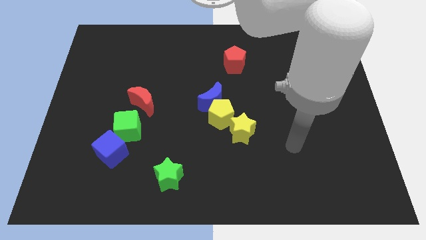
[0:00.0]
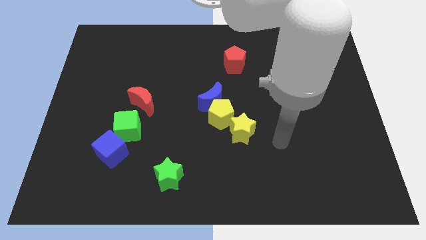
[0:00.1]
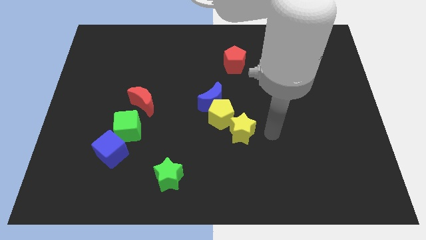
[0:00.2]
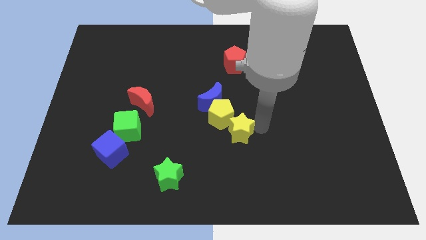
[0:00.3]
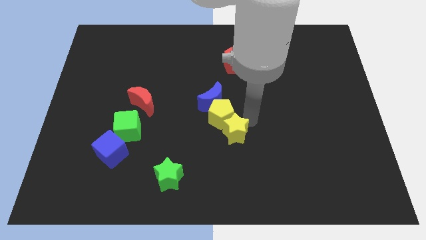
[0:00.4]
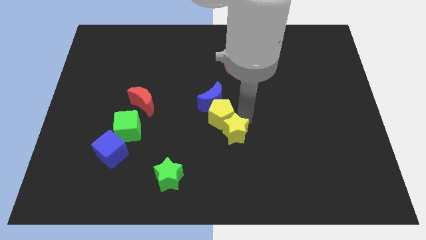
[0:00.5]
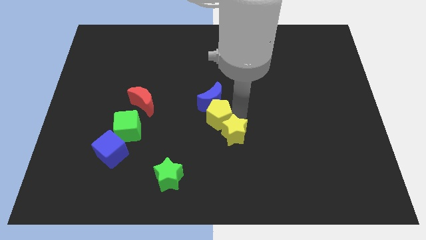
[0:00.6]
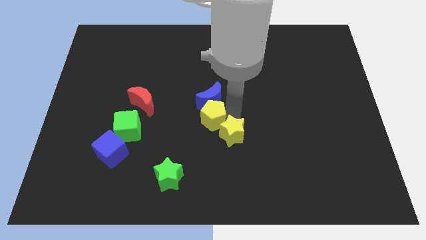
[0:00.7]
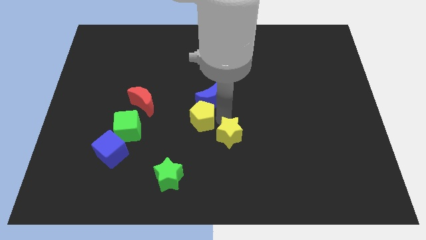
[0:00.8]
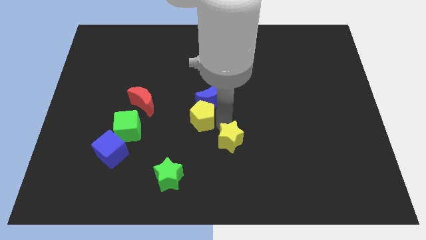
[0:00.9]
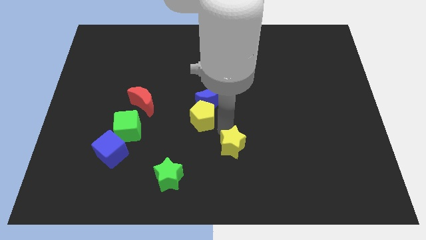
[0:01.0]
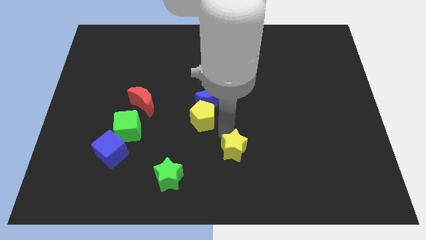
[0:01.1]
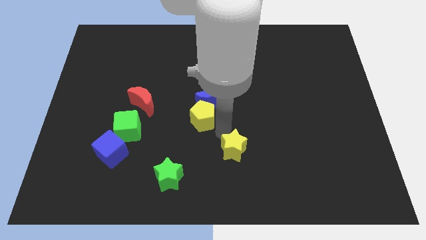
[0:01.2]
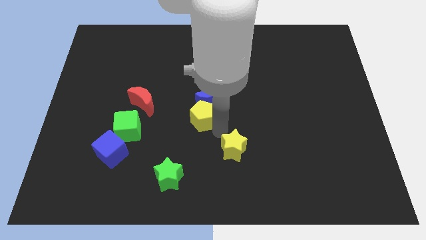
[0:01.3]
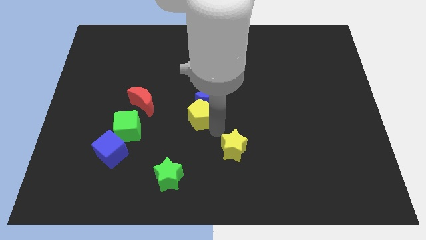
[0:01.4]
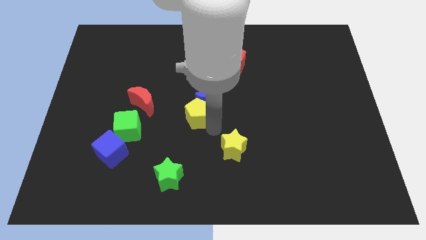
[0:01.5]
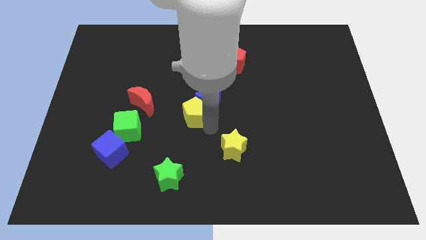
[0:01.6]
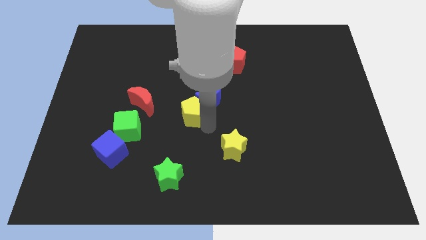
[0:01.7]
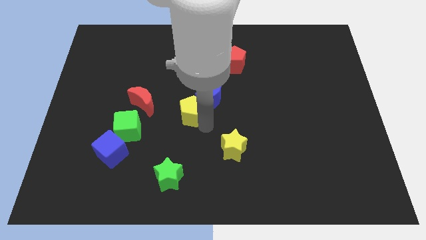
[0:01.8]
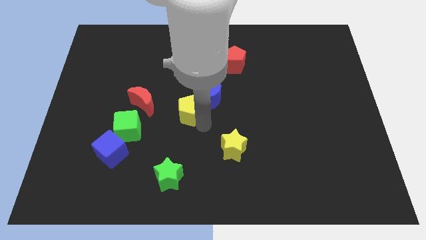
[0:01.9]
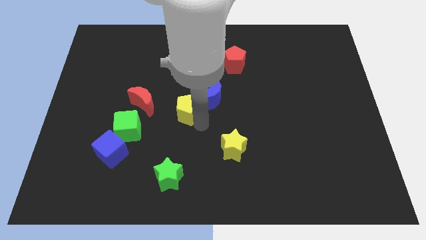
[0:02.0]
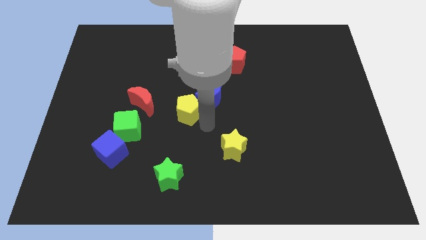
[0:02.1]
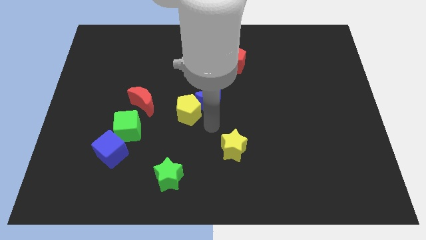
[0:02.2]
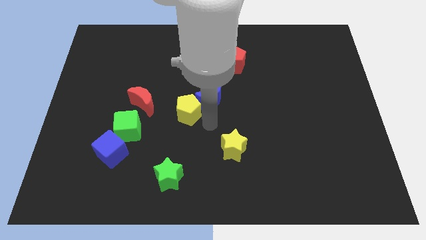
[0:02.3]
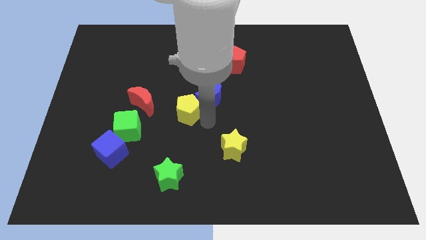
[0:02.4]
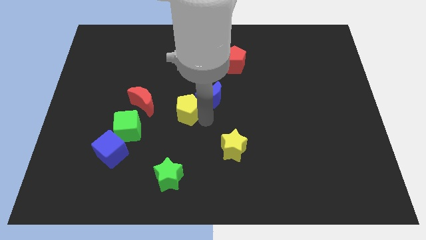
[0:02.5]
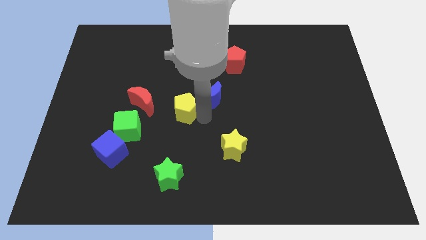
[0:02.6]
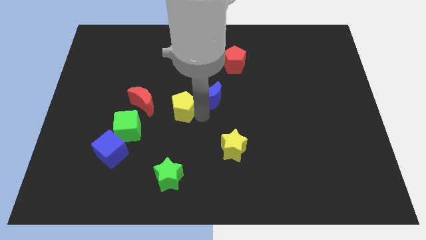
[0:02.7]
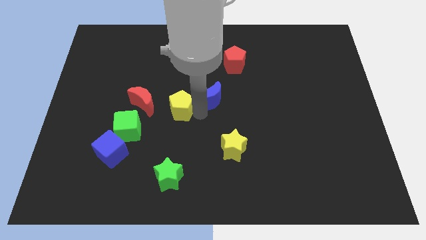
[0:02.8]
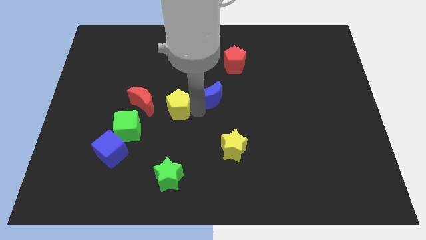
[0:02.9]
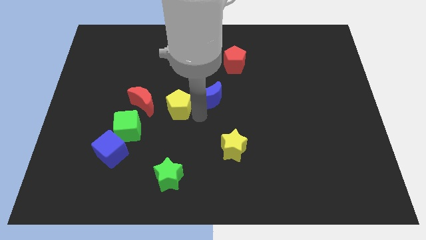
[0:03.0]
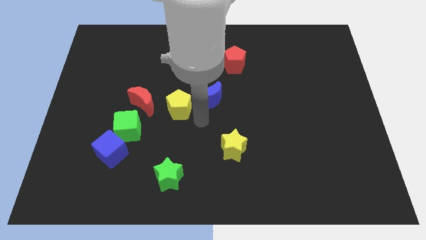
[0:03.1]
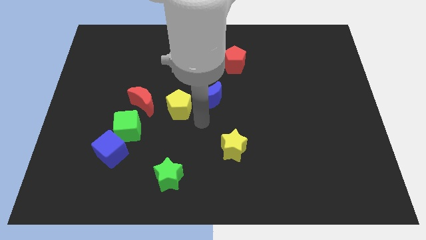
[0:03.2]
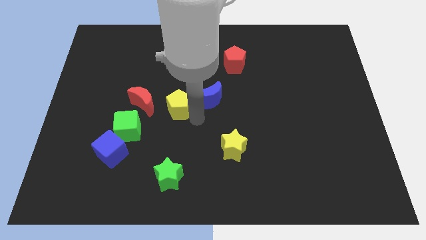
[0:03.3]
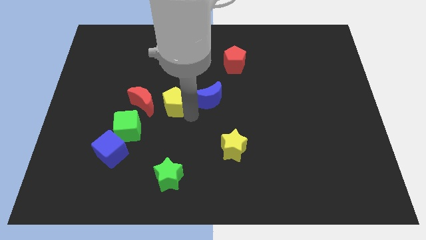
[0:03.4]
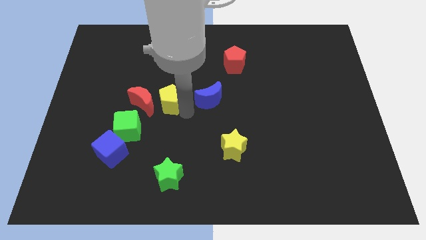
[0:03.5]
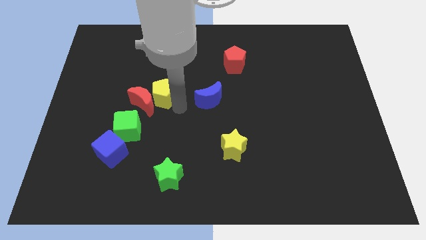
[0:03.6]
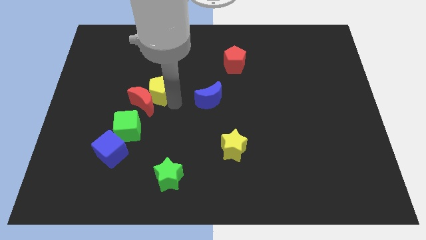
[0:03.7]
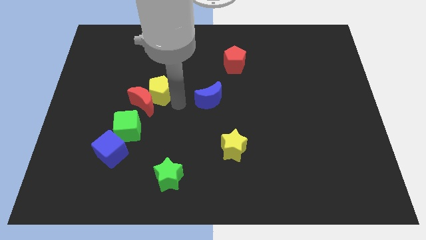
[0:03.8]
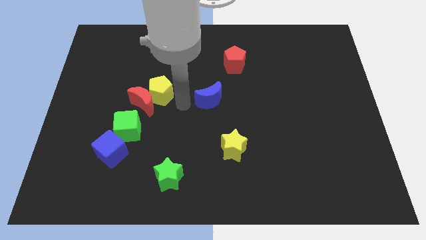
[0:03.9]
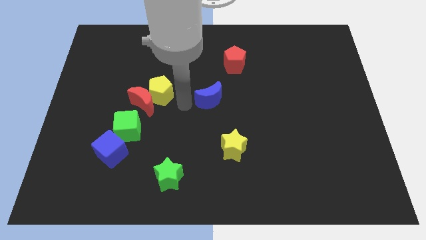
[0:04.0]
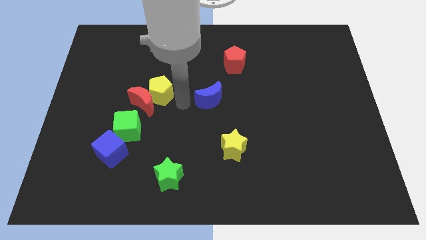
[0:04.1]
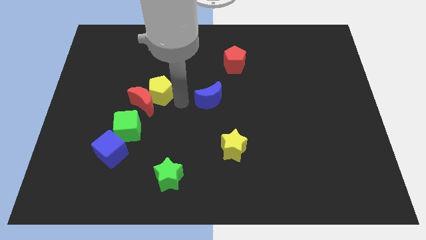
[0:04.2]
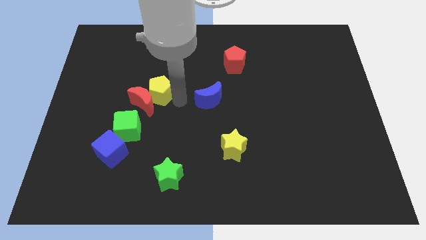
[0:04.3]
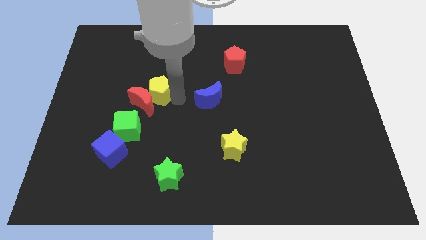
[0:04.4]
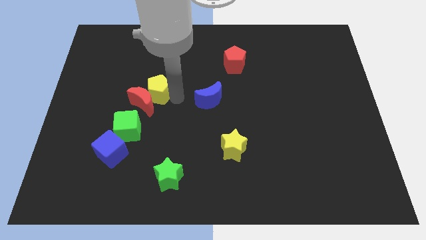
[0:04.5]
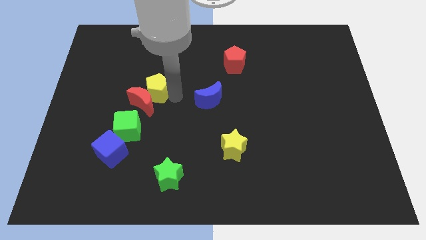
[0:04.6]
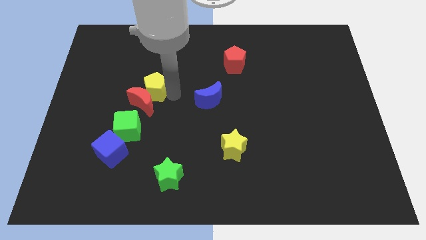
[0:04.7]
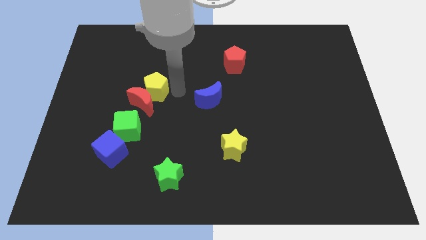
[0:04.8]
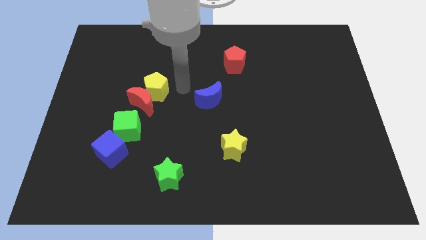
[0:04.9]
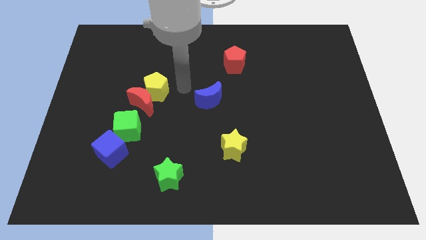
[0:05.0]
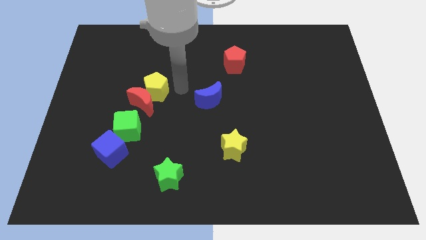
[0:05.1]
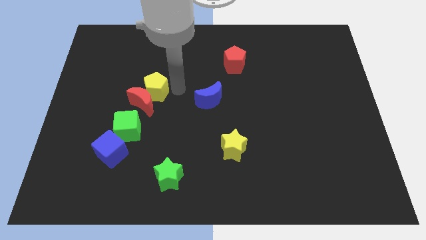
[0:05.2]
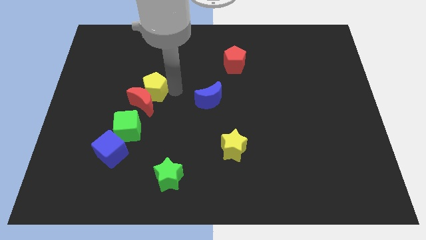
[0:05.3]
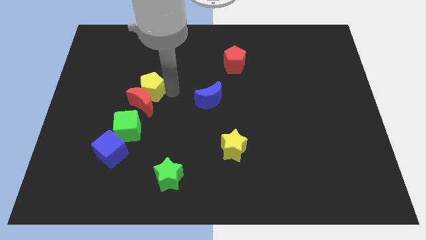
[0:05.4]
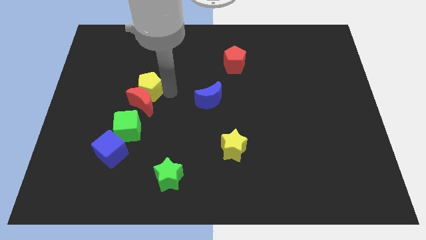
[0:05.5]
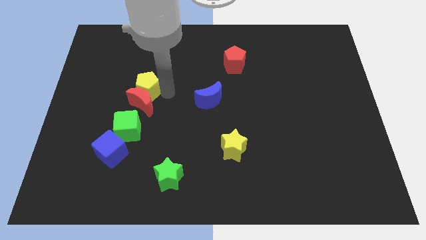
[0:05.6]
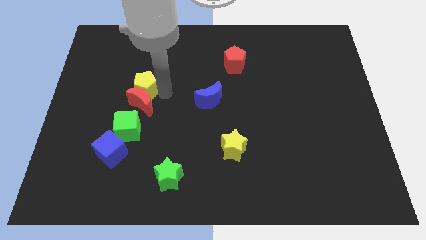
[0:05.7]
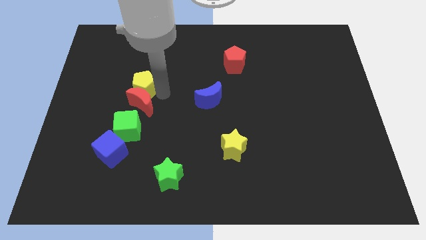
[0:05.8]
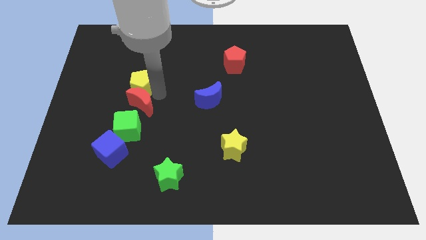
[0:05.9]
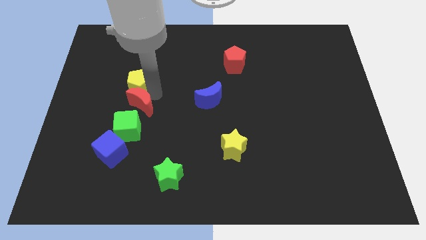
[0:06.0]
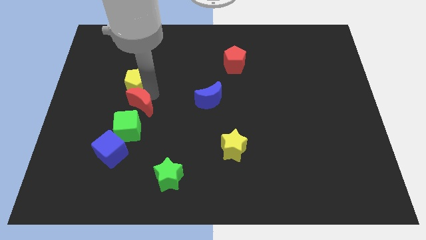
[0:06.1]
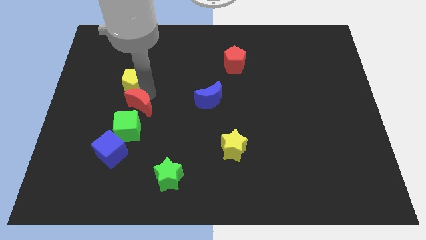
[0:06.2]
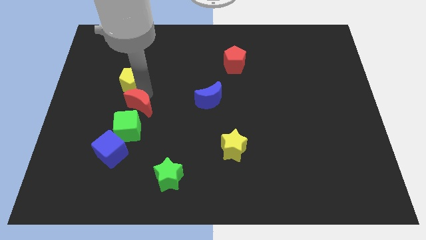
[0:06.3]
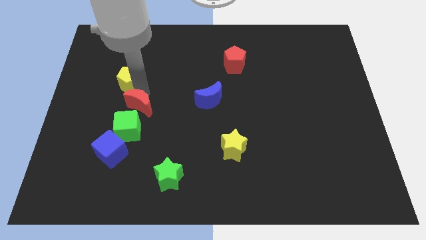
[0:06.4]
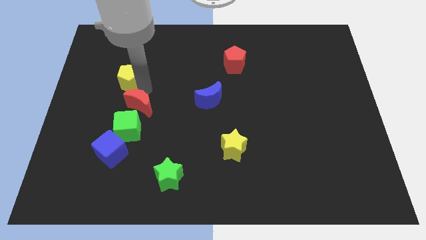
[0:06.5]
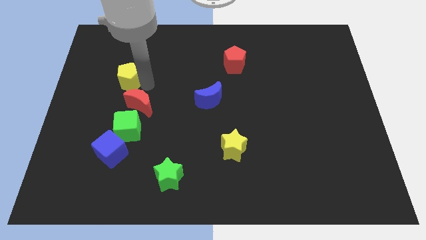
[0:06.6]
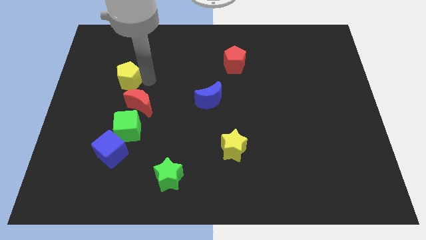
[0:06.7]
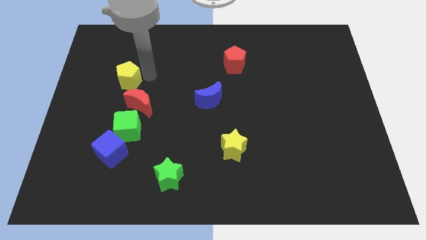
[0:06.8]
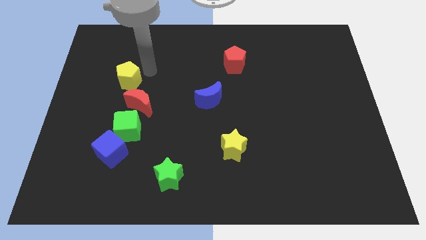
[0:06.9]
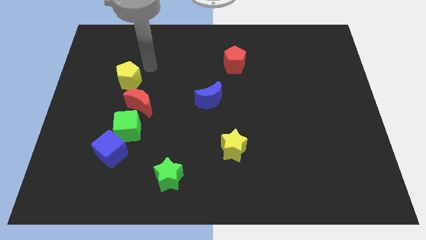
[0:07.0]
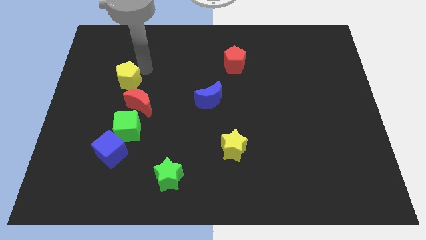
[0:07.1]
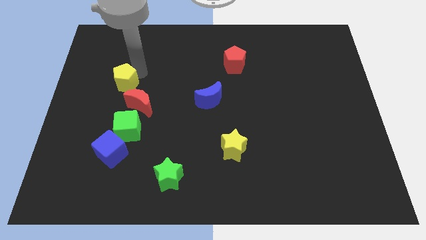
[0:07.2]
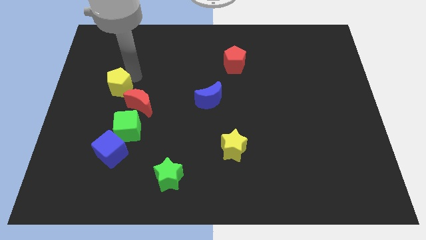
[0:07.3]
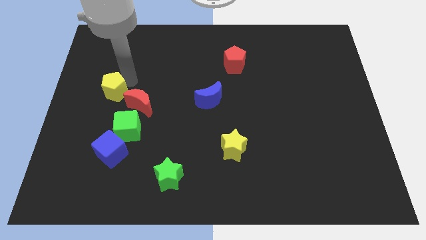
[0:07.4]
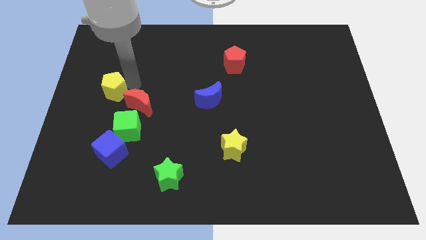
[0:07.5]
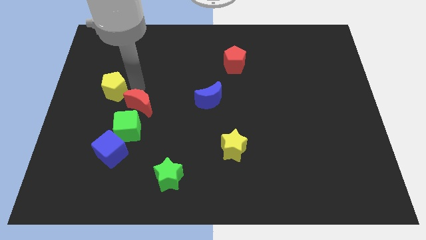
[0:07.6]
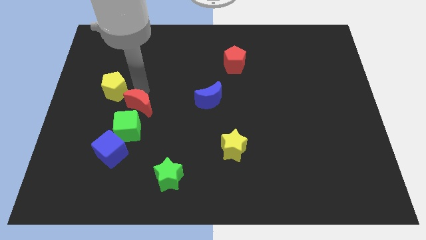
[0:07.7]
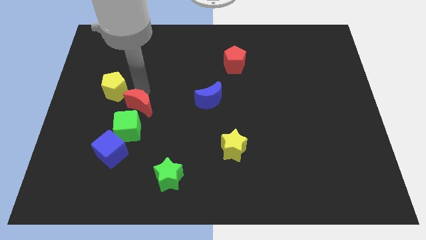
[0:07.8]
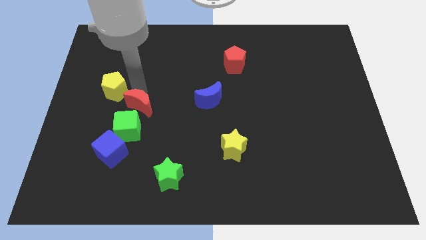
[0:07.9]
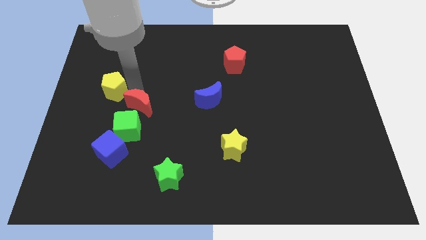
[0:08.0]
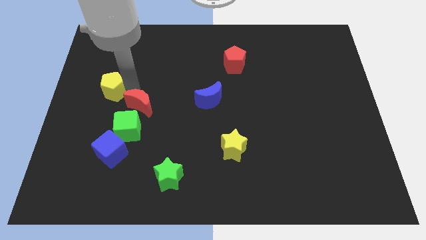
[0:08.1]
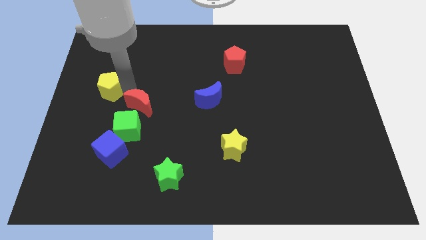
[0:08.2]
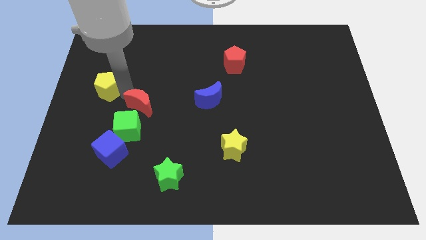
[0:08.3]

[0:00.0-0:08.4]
slide the yellow pentagon to the left side of the board
